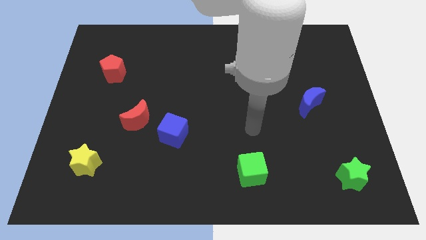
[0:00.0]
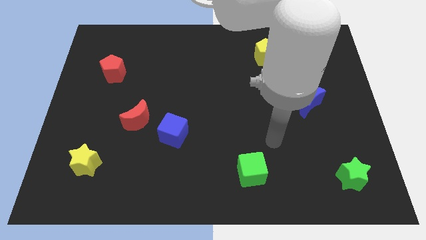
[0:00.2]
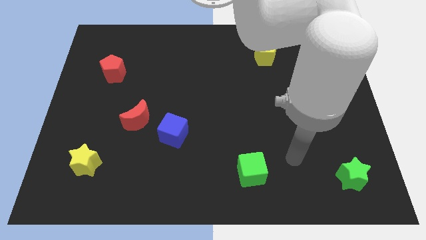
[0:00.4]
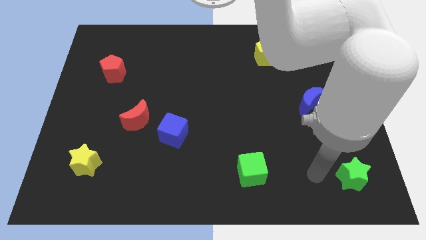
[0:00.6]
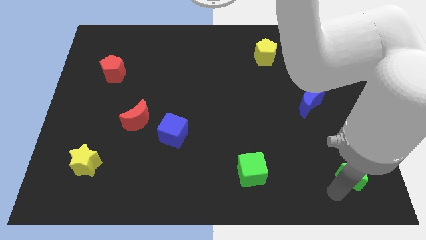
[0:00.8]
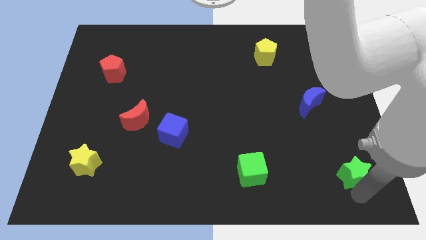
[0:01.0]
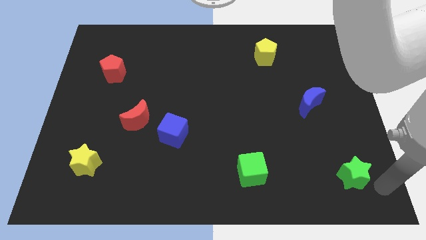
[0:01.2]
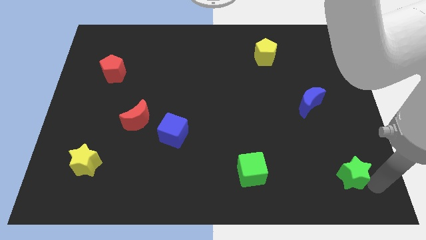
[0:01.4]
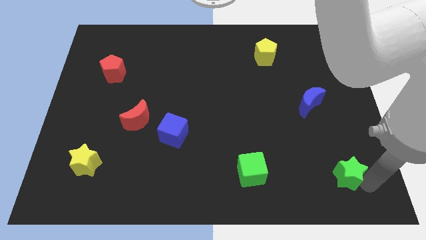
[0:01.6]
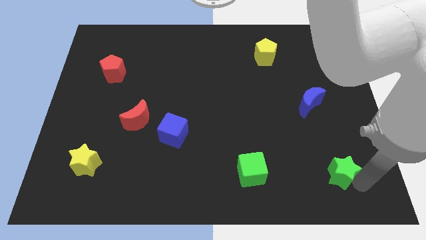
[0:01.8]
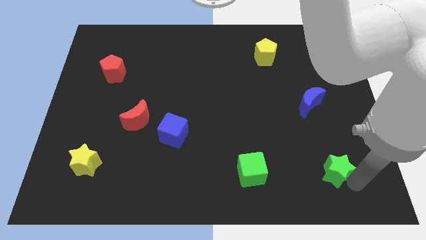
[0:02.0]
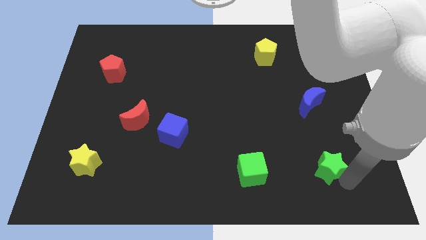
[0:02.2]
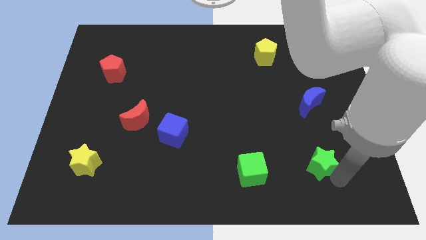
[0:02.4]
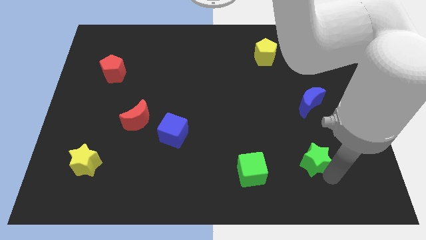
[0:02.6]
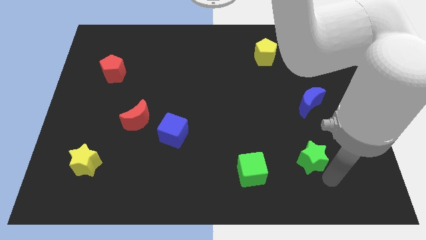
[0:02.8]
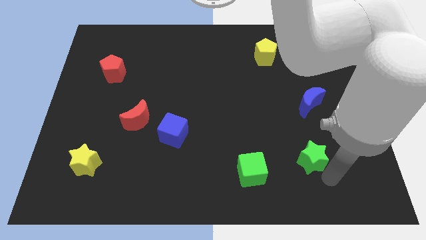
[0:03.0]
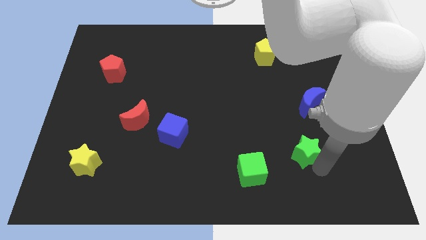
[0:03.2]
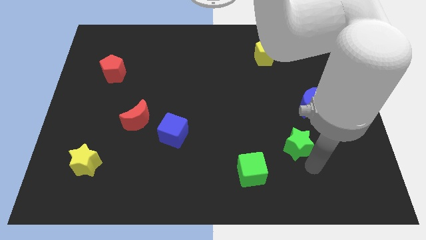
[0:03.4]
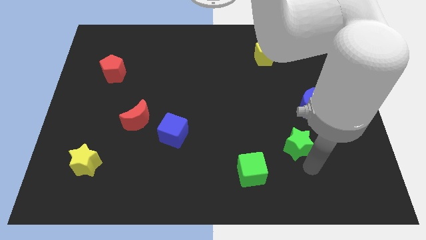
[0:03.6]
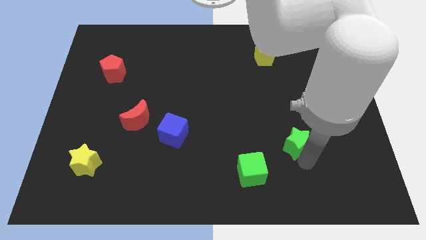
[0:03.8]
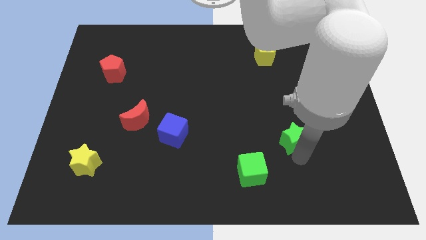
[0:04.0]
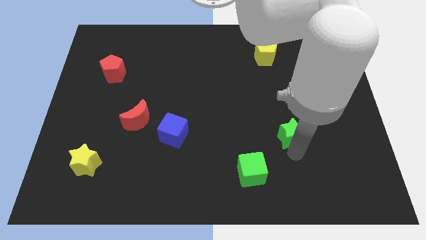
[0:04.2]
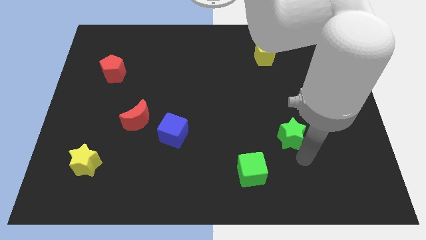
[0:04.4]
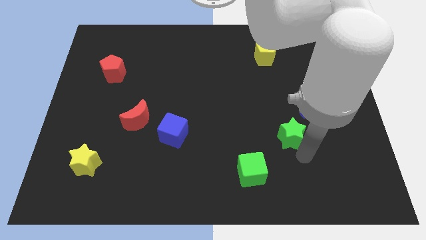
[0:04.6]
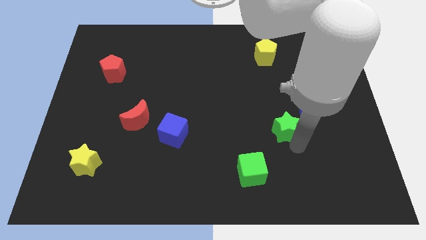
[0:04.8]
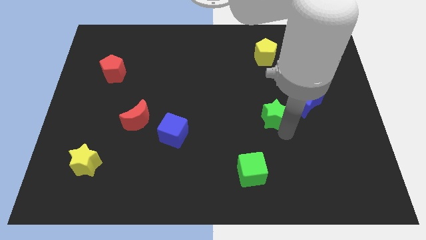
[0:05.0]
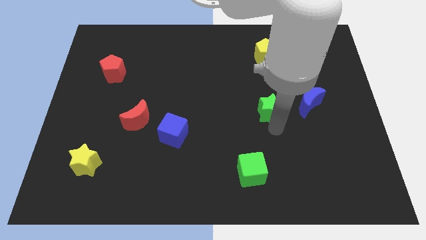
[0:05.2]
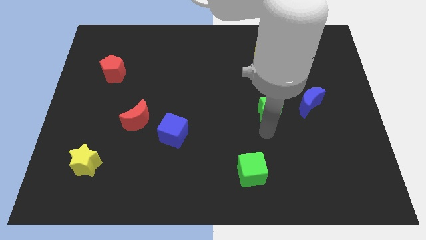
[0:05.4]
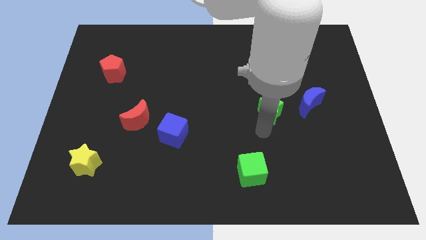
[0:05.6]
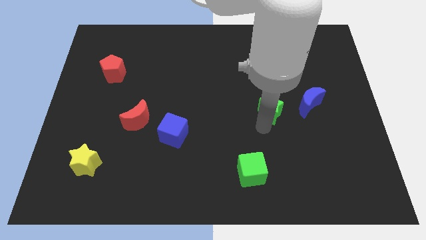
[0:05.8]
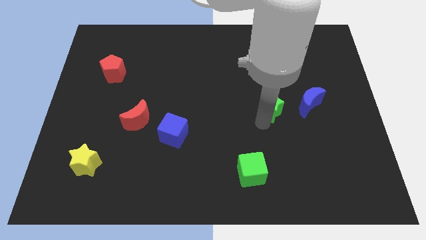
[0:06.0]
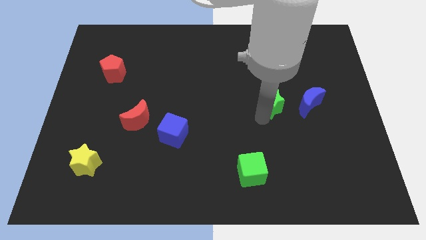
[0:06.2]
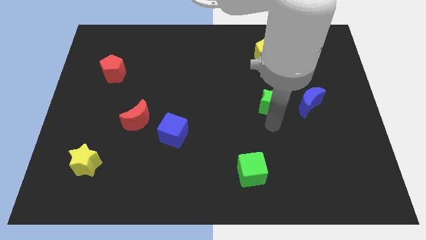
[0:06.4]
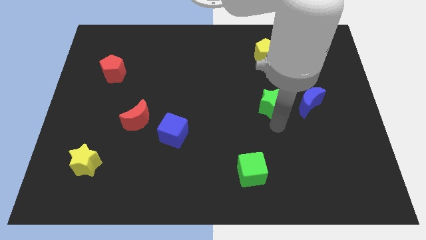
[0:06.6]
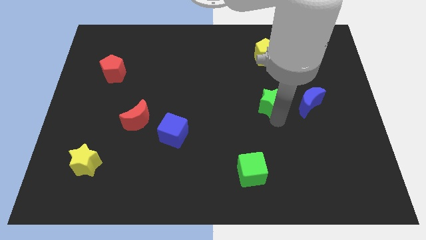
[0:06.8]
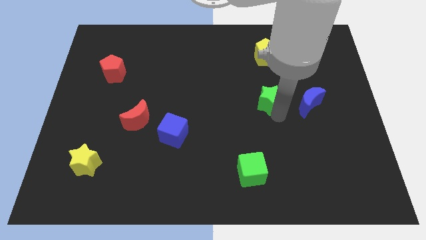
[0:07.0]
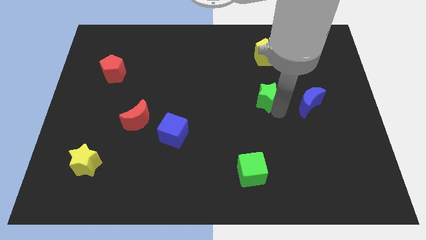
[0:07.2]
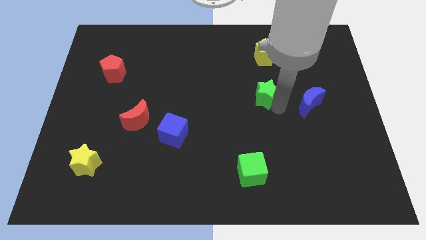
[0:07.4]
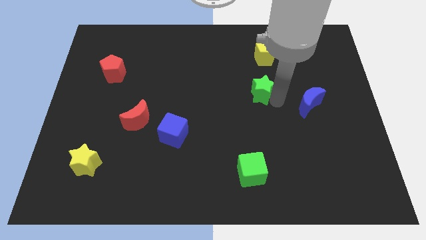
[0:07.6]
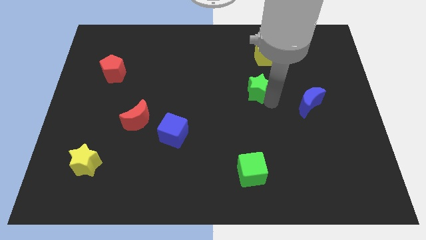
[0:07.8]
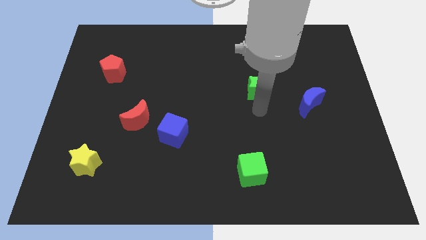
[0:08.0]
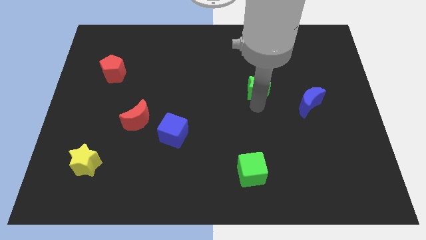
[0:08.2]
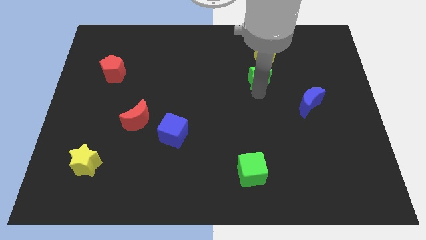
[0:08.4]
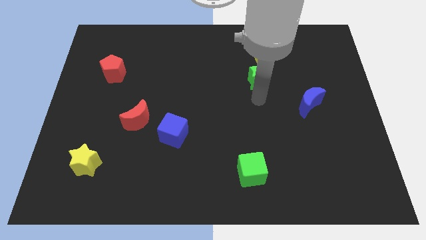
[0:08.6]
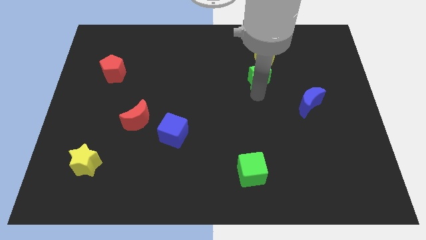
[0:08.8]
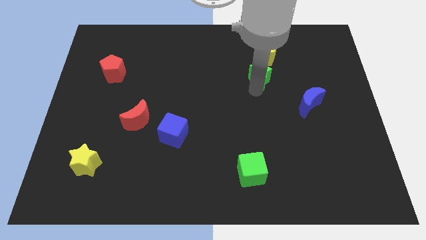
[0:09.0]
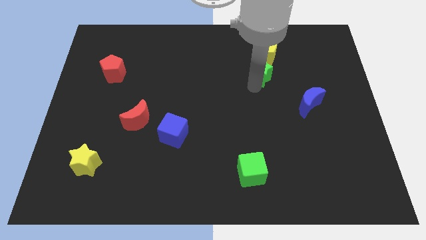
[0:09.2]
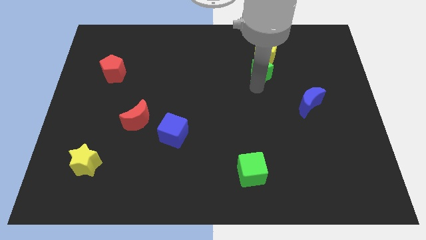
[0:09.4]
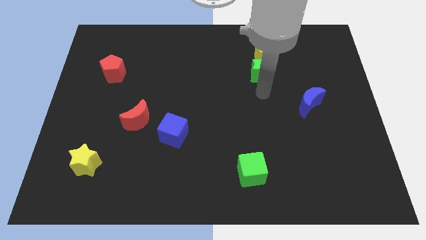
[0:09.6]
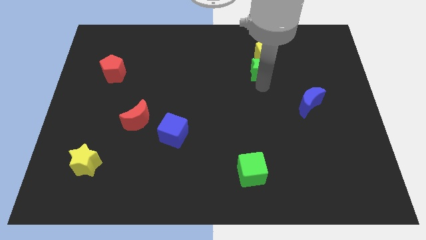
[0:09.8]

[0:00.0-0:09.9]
move the green star to the yellow pentagon

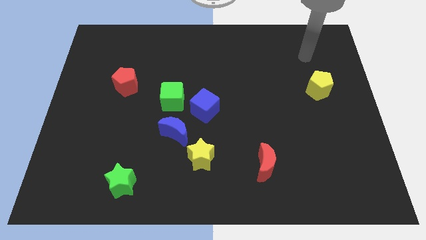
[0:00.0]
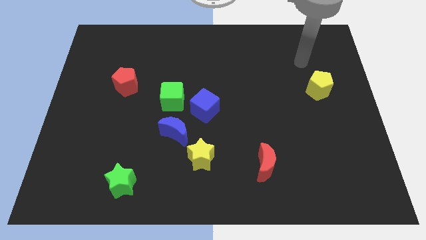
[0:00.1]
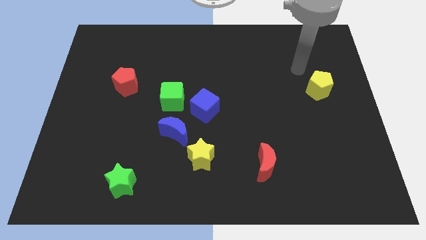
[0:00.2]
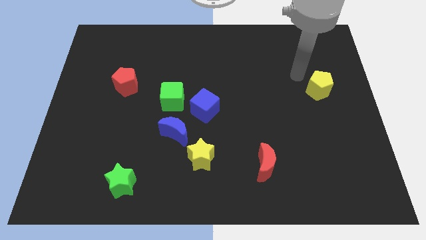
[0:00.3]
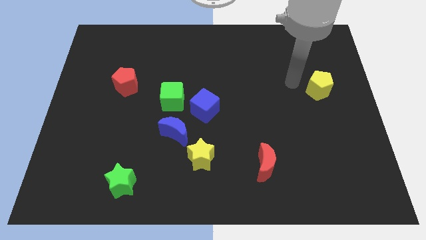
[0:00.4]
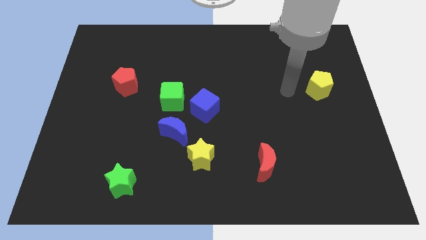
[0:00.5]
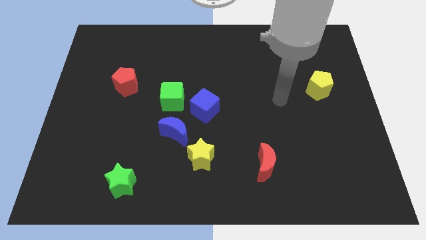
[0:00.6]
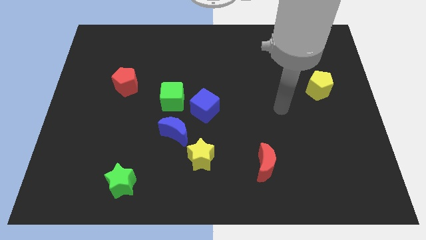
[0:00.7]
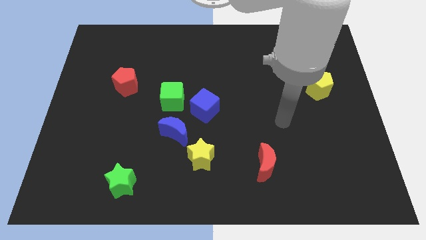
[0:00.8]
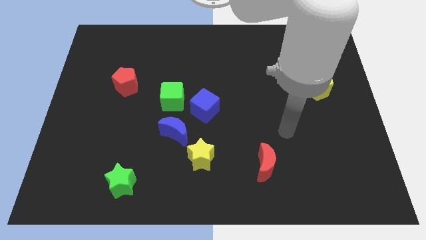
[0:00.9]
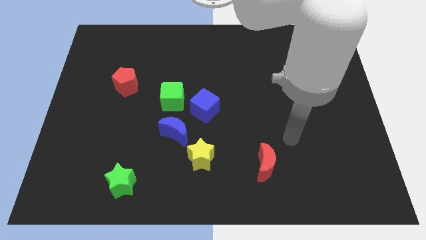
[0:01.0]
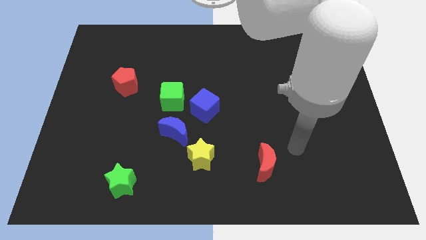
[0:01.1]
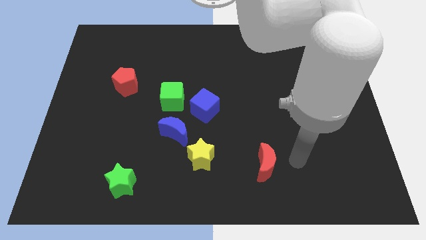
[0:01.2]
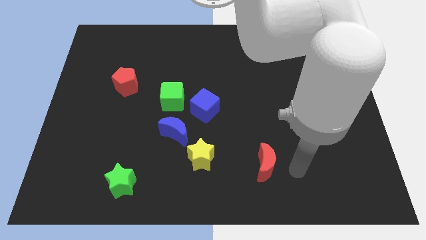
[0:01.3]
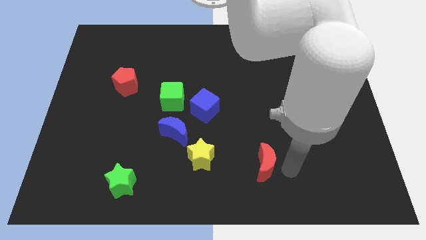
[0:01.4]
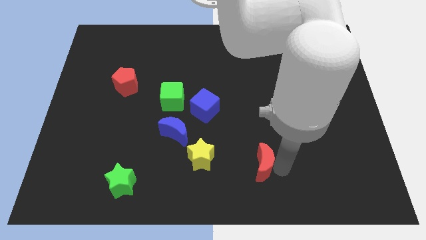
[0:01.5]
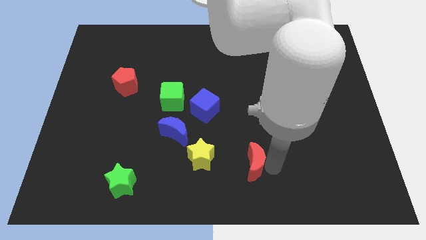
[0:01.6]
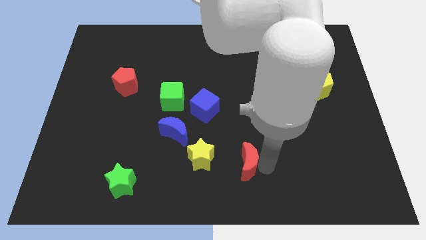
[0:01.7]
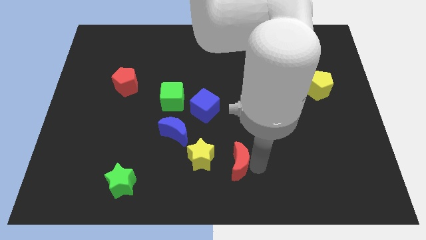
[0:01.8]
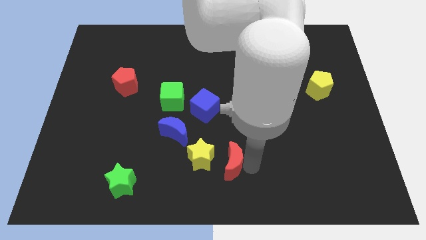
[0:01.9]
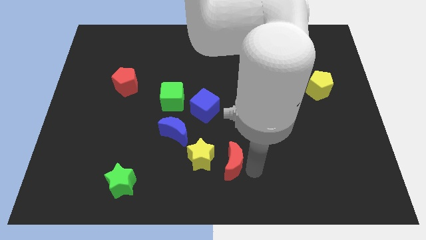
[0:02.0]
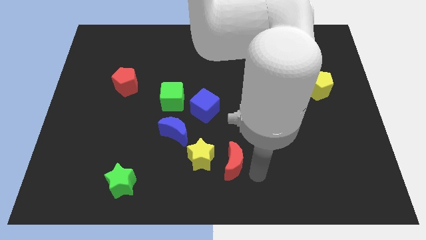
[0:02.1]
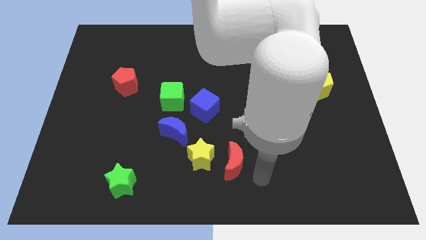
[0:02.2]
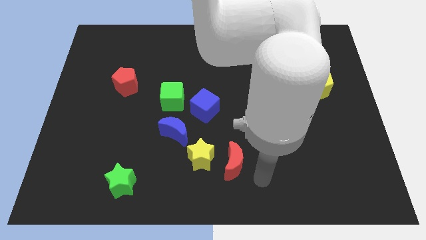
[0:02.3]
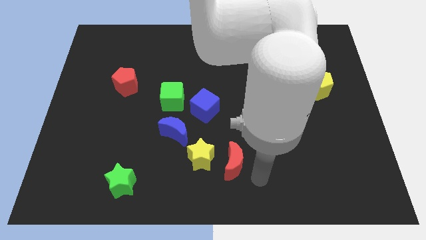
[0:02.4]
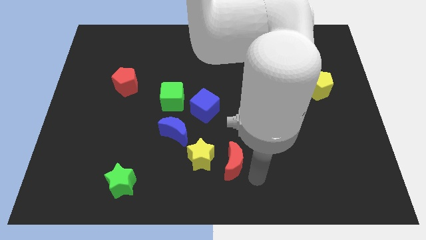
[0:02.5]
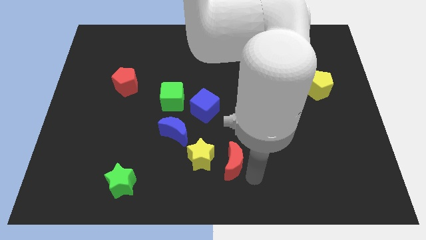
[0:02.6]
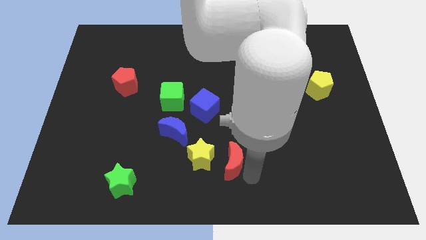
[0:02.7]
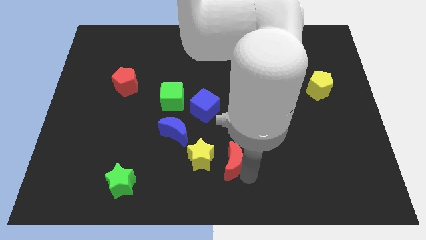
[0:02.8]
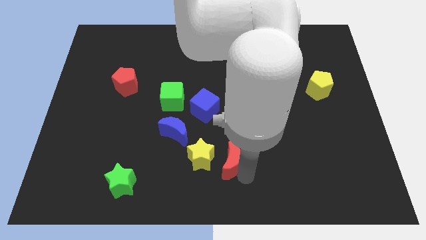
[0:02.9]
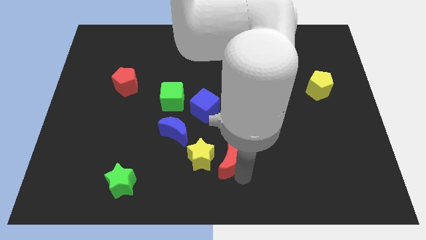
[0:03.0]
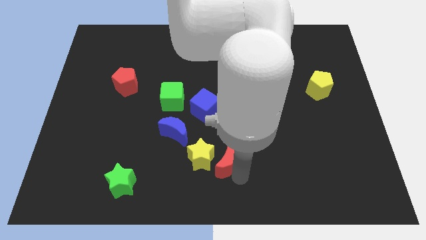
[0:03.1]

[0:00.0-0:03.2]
put the red moon to the yellow star
